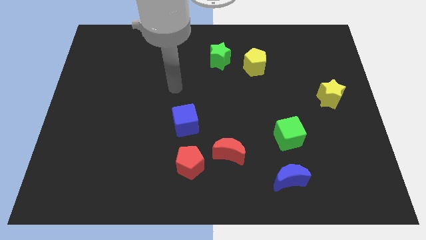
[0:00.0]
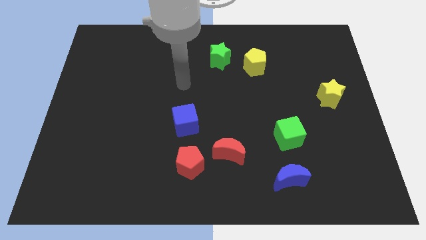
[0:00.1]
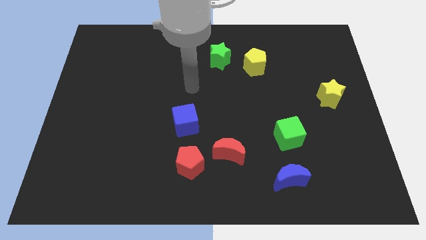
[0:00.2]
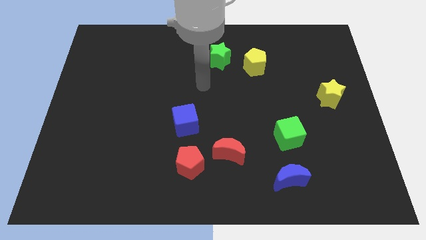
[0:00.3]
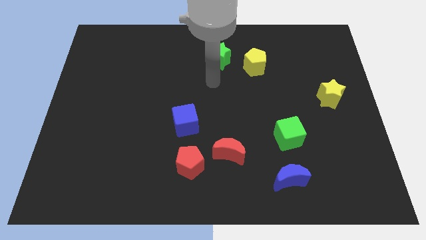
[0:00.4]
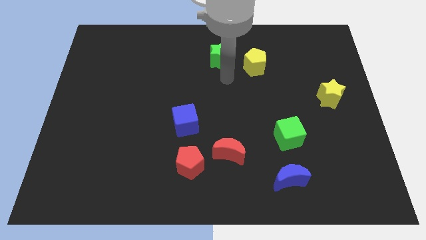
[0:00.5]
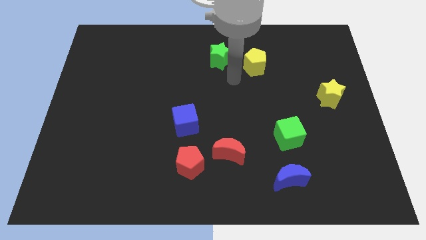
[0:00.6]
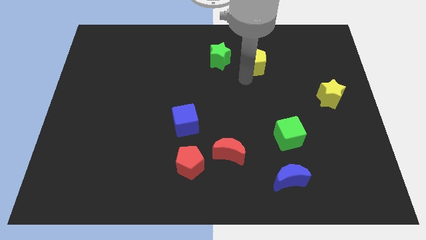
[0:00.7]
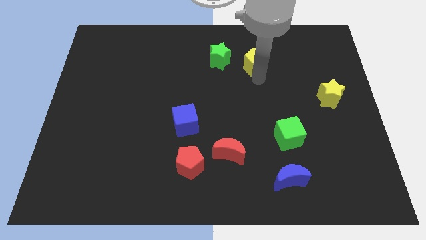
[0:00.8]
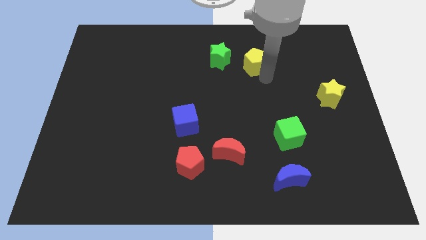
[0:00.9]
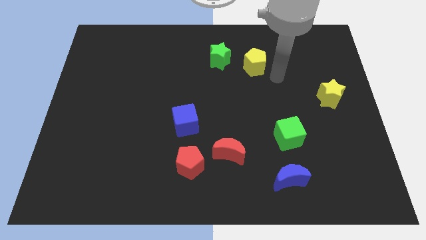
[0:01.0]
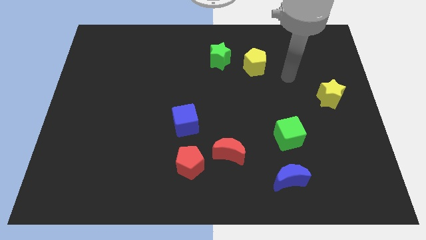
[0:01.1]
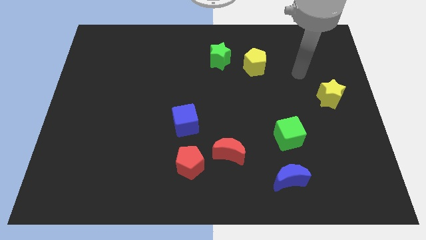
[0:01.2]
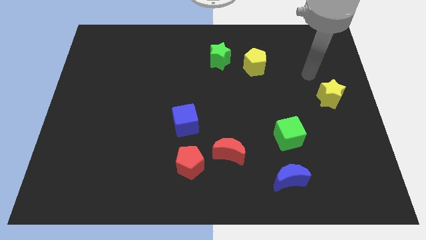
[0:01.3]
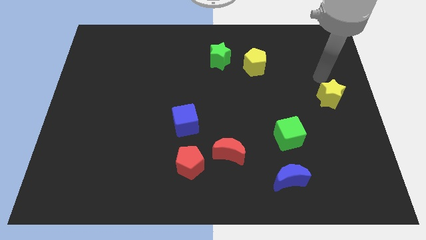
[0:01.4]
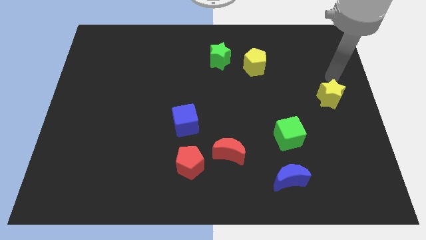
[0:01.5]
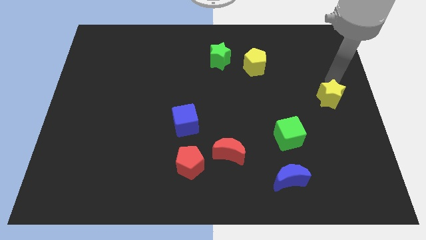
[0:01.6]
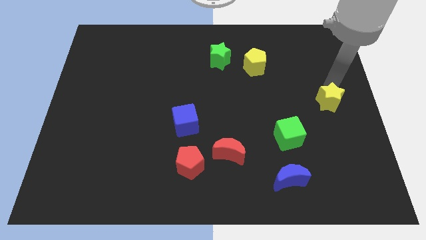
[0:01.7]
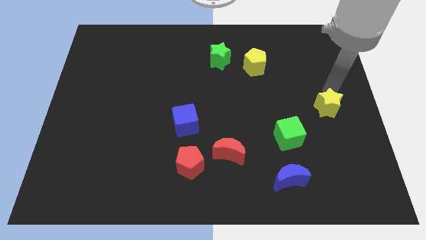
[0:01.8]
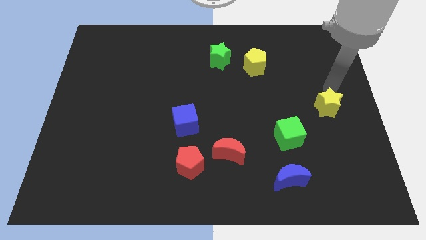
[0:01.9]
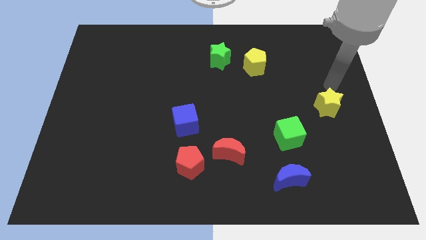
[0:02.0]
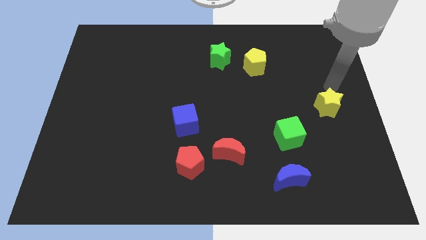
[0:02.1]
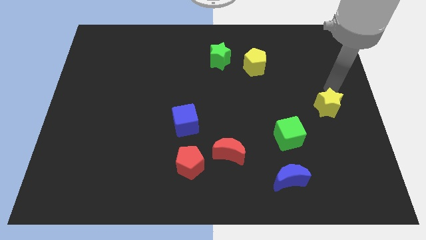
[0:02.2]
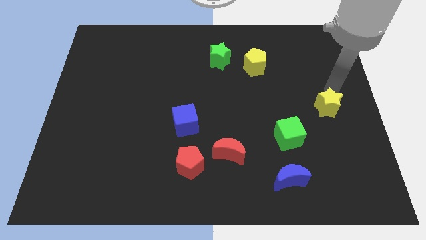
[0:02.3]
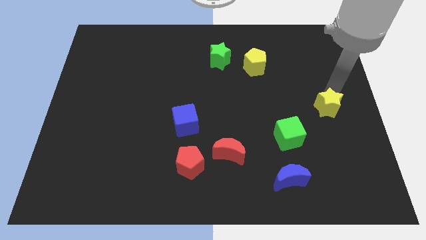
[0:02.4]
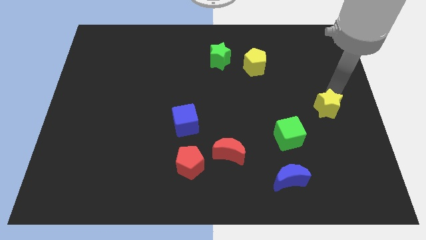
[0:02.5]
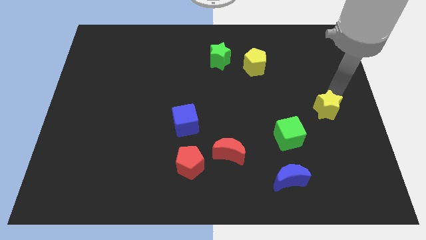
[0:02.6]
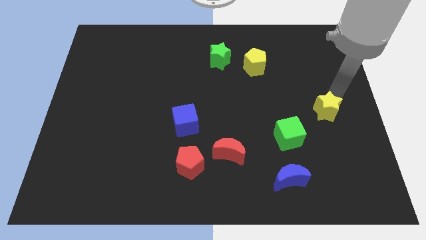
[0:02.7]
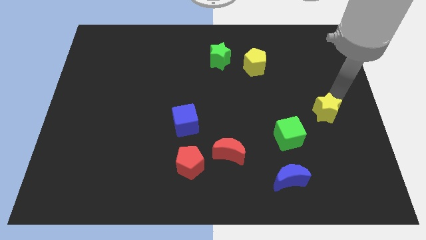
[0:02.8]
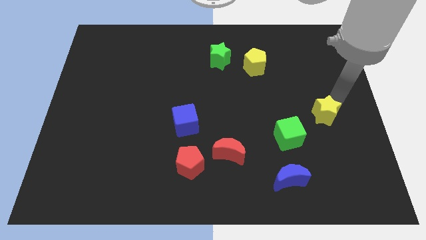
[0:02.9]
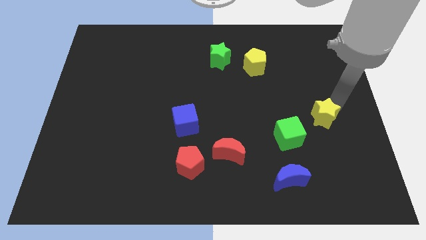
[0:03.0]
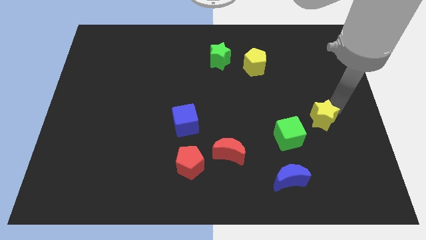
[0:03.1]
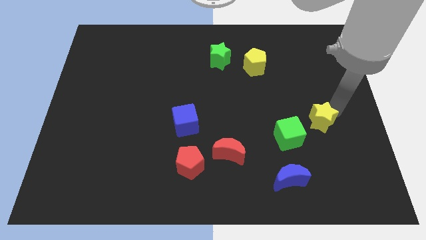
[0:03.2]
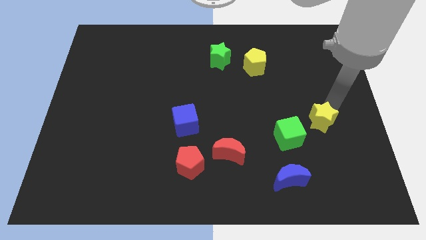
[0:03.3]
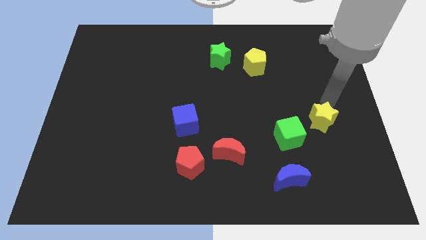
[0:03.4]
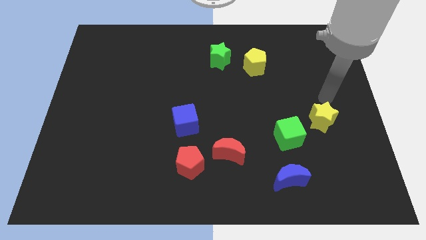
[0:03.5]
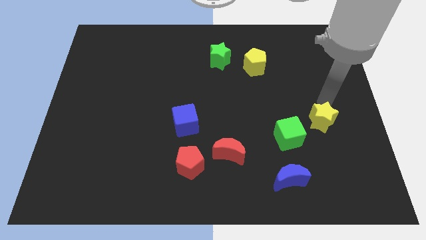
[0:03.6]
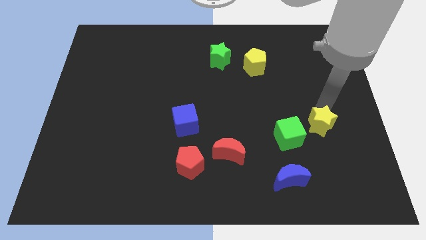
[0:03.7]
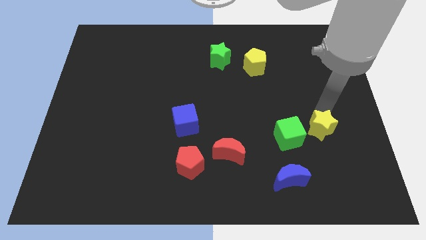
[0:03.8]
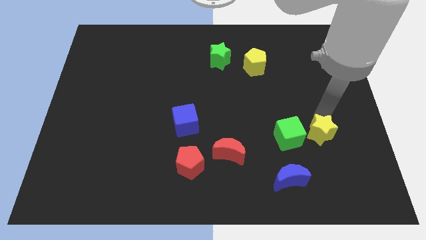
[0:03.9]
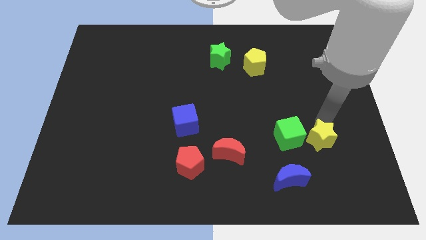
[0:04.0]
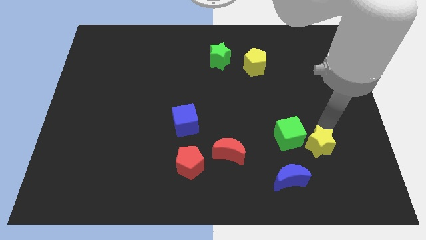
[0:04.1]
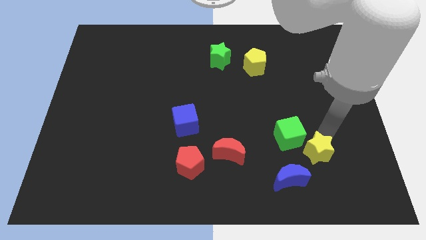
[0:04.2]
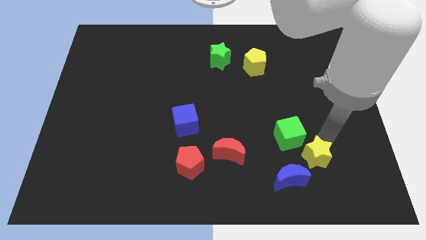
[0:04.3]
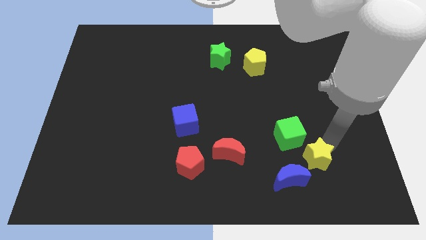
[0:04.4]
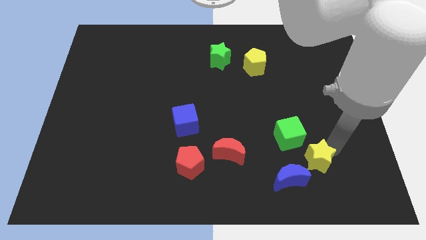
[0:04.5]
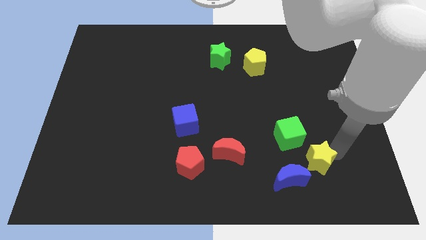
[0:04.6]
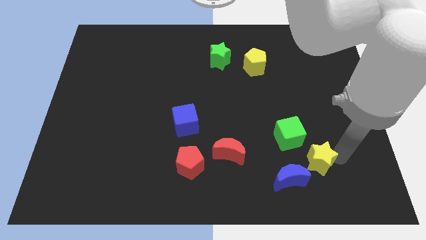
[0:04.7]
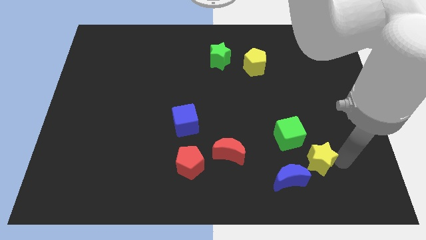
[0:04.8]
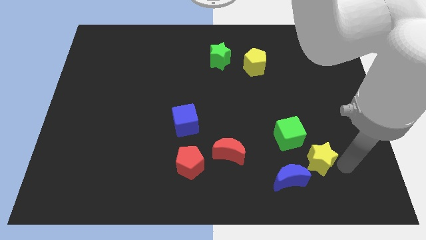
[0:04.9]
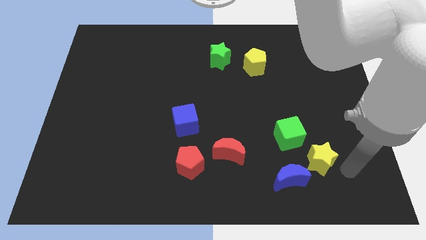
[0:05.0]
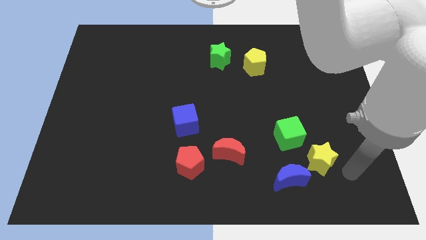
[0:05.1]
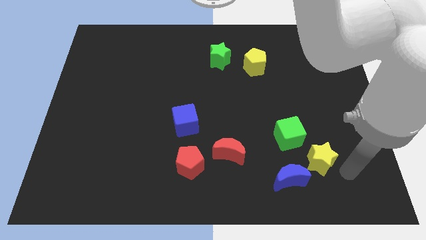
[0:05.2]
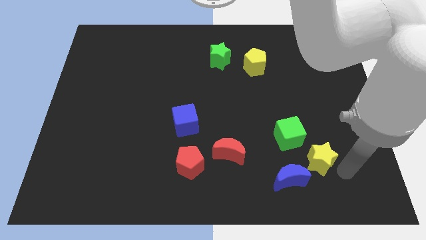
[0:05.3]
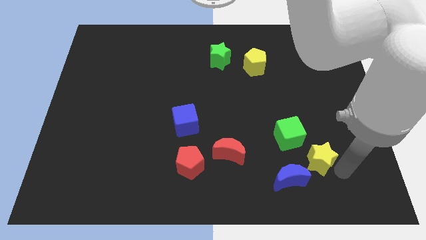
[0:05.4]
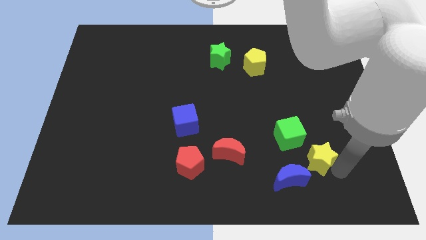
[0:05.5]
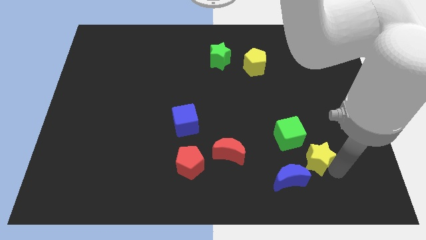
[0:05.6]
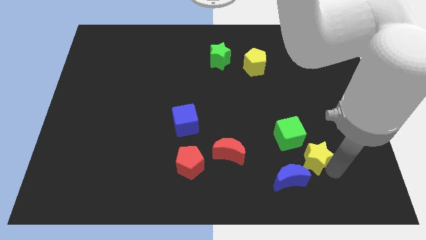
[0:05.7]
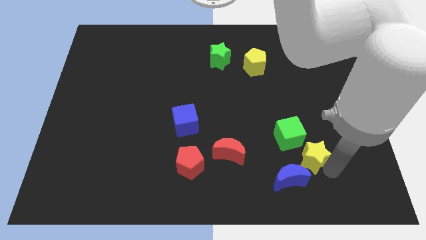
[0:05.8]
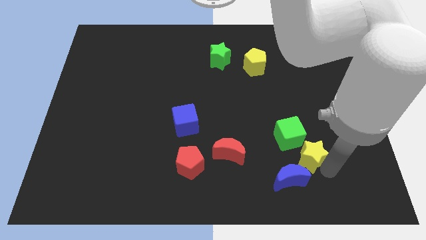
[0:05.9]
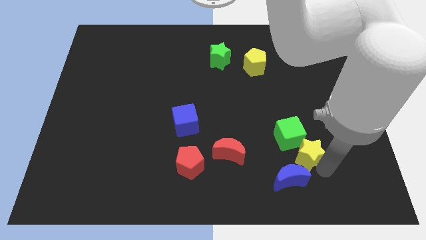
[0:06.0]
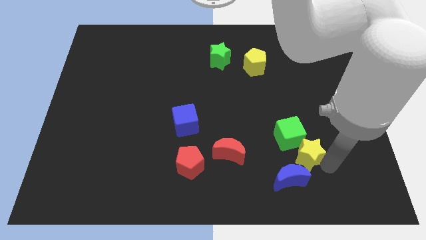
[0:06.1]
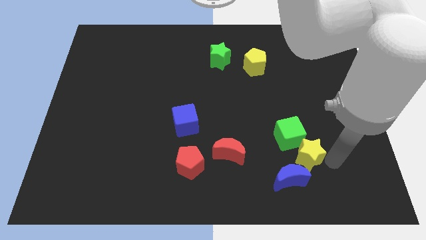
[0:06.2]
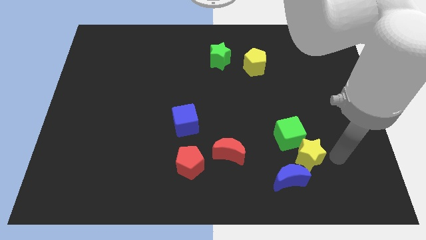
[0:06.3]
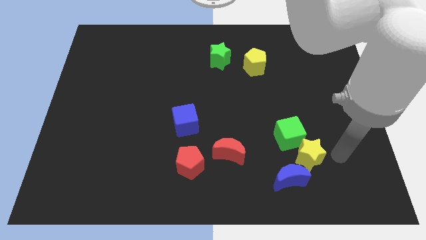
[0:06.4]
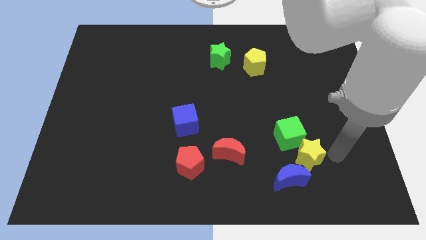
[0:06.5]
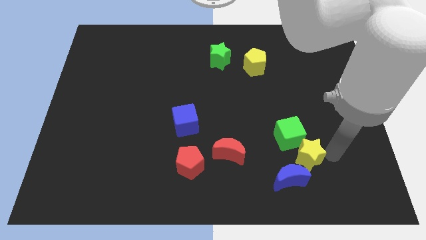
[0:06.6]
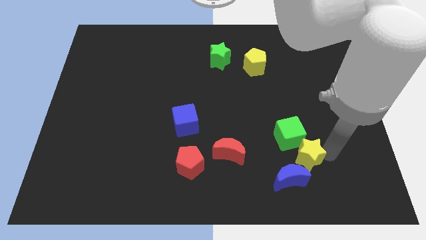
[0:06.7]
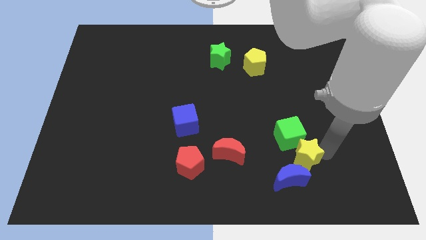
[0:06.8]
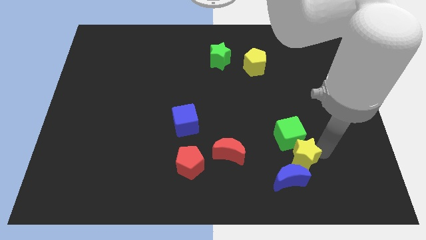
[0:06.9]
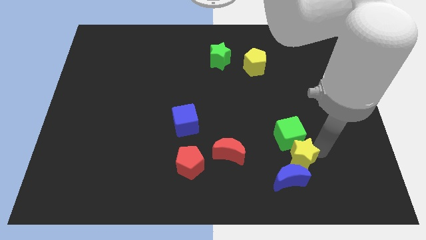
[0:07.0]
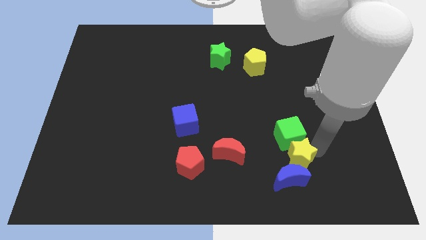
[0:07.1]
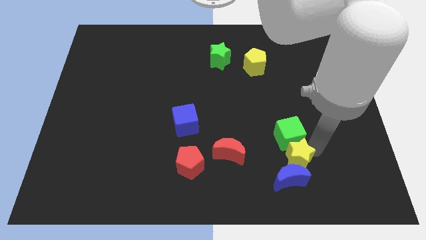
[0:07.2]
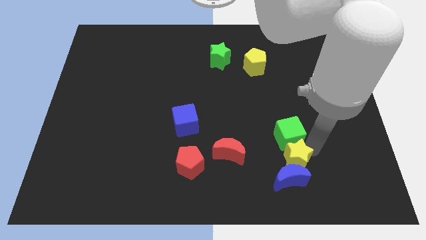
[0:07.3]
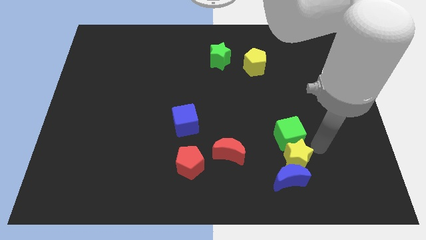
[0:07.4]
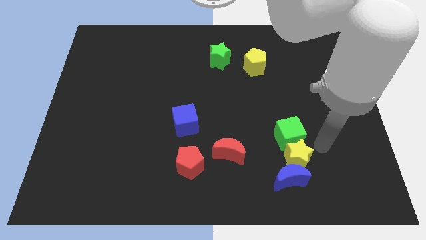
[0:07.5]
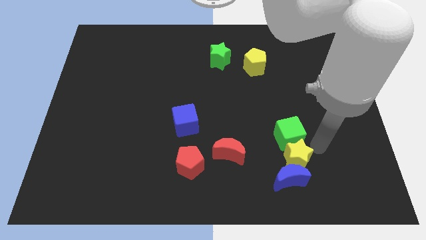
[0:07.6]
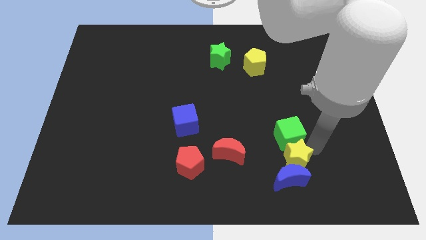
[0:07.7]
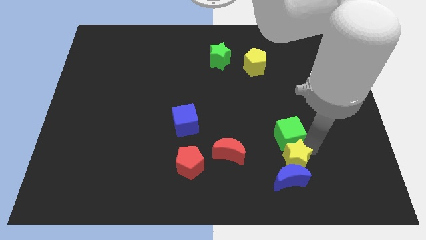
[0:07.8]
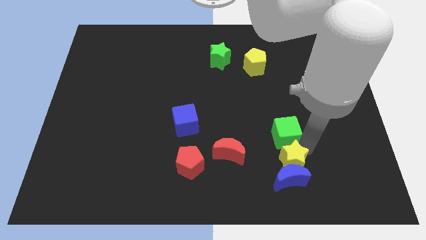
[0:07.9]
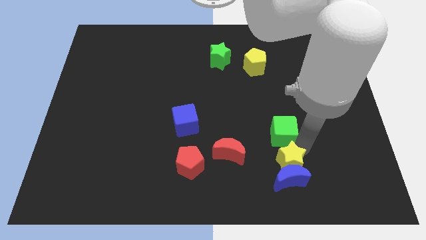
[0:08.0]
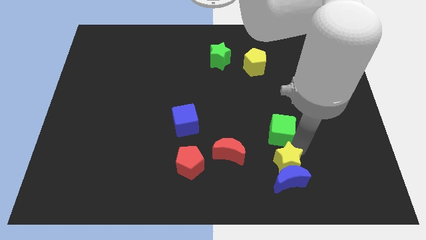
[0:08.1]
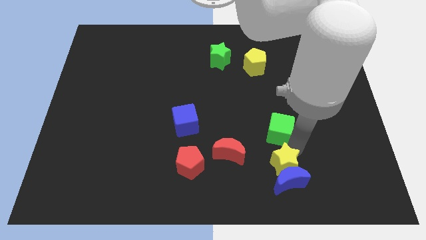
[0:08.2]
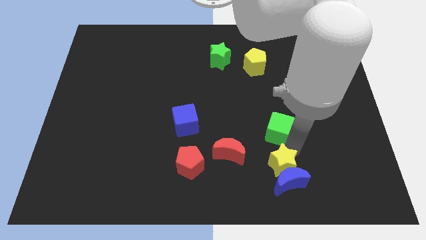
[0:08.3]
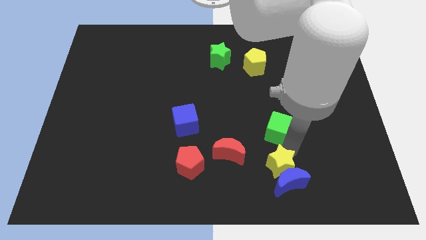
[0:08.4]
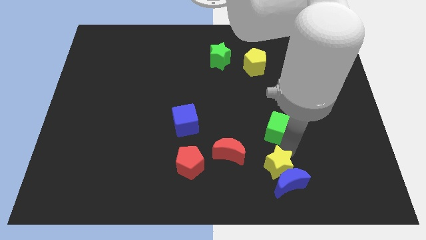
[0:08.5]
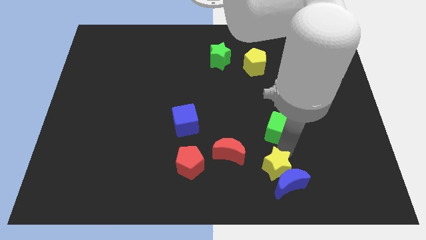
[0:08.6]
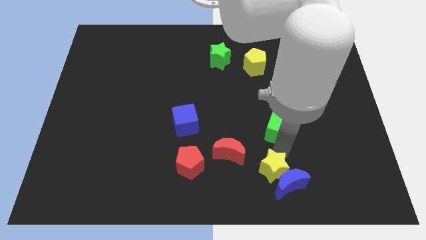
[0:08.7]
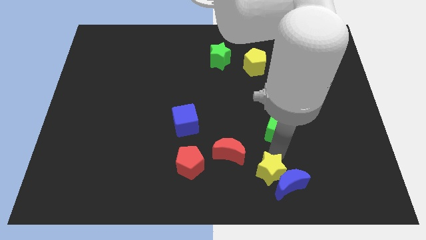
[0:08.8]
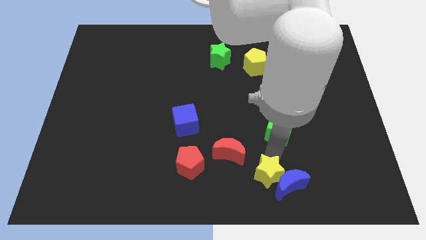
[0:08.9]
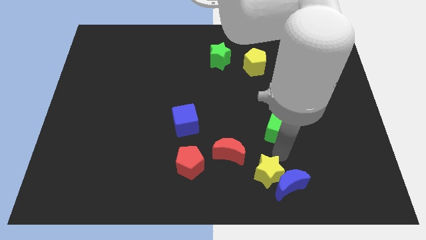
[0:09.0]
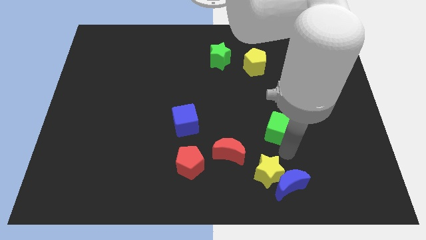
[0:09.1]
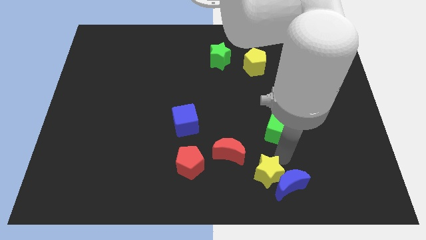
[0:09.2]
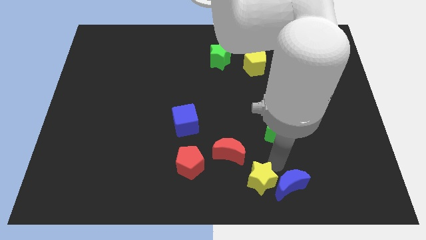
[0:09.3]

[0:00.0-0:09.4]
move the yellow star to the bottom side
